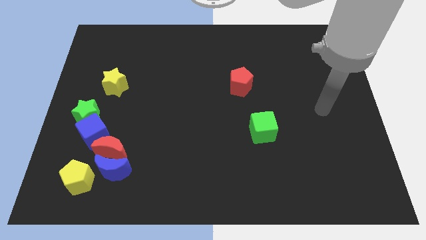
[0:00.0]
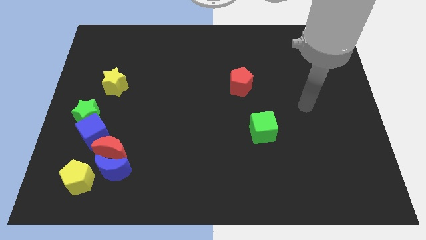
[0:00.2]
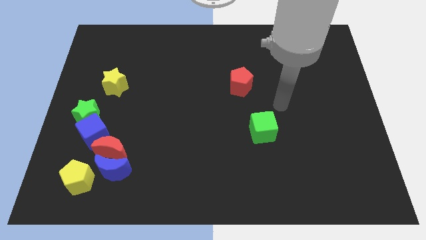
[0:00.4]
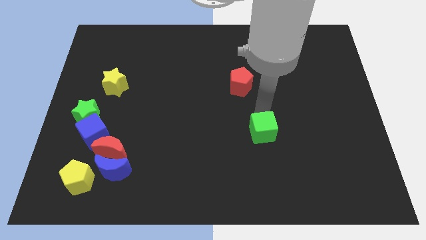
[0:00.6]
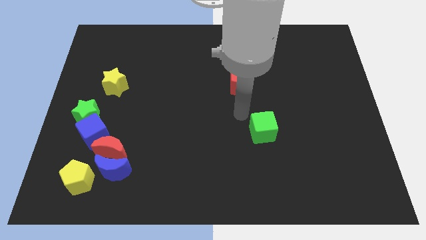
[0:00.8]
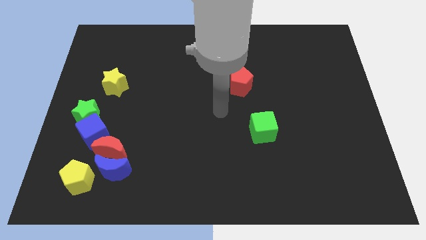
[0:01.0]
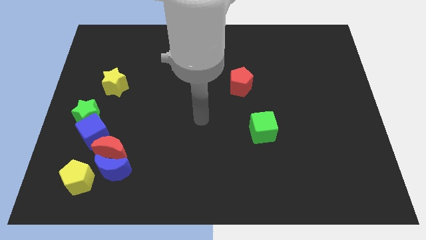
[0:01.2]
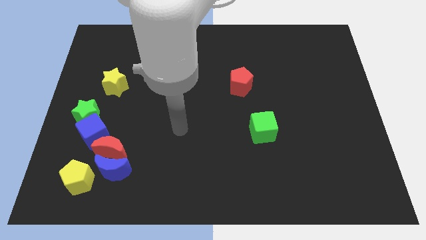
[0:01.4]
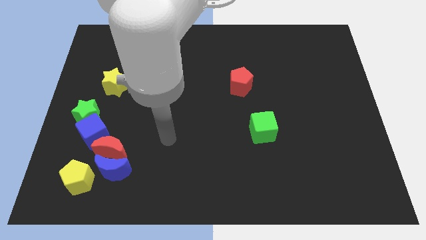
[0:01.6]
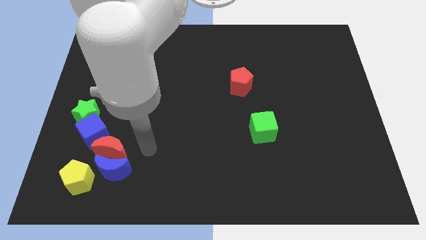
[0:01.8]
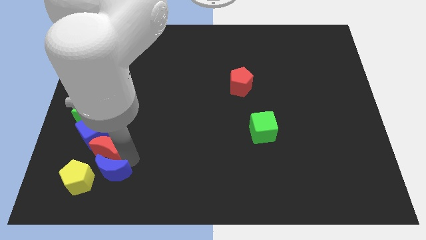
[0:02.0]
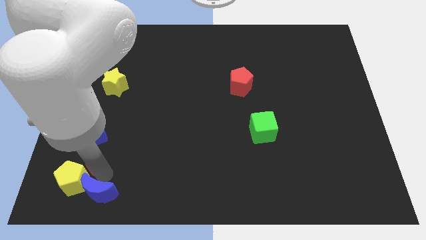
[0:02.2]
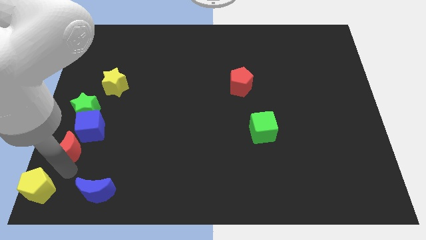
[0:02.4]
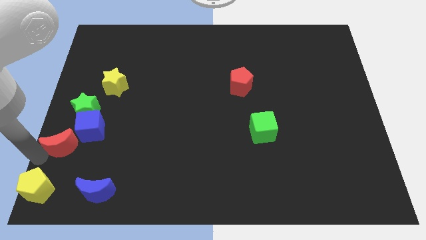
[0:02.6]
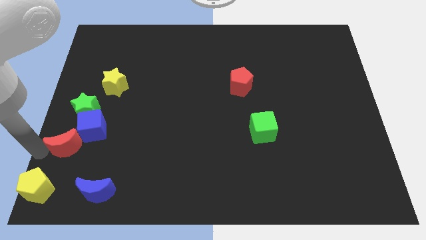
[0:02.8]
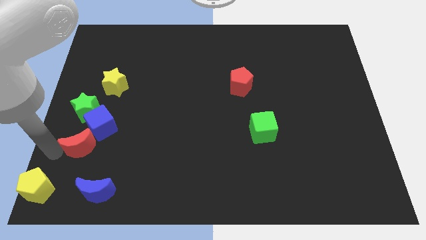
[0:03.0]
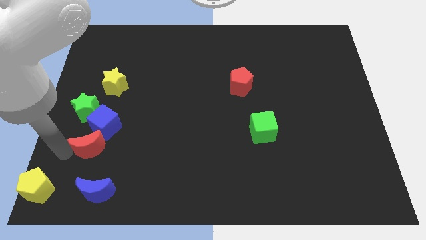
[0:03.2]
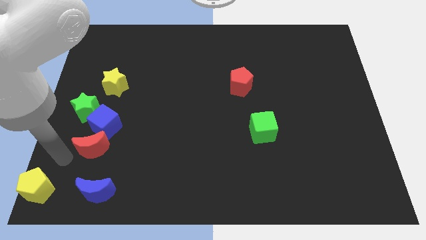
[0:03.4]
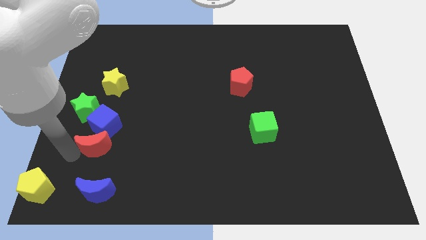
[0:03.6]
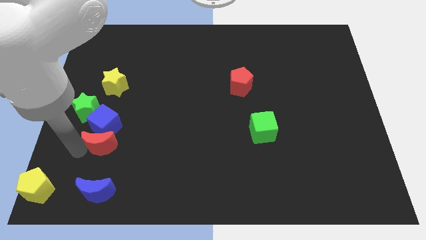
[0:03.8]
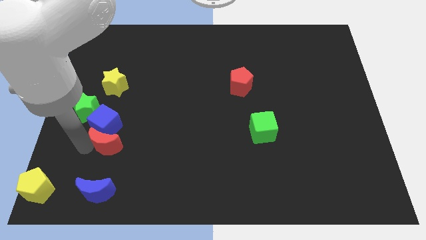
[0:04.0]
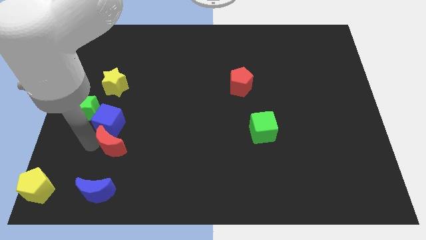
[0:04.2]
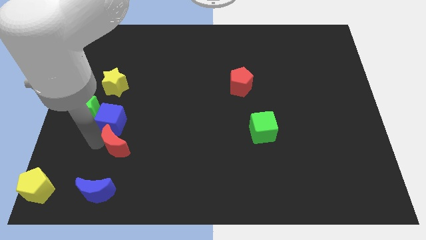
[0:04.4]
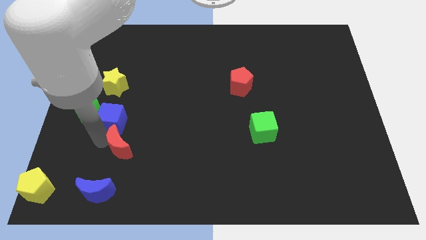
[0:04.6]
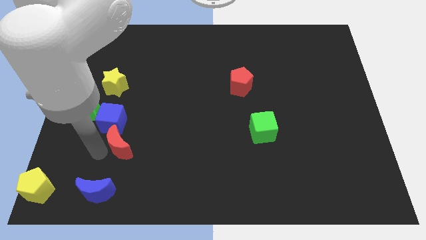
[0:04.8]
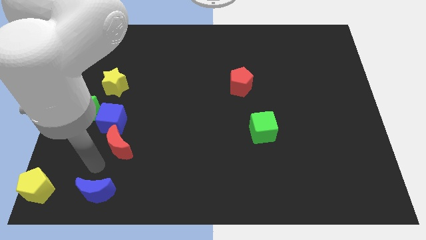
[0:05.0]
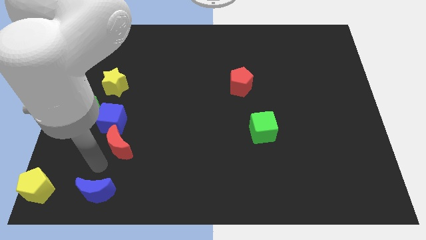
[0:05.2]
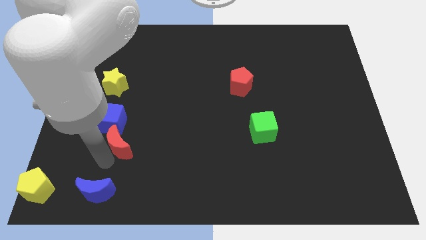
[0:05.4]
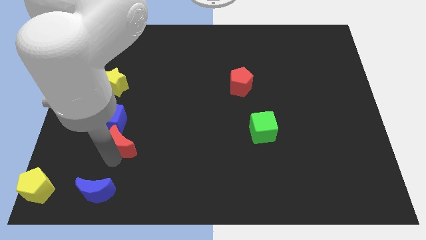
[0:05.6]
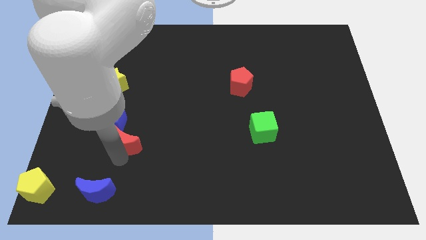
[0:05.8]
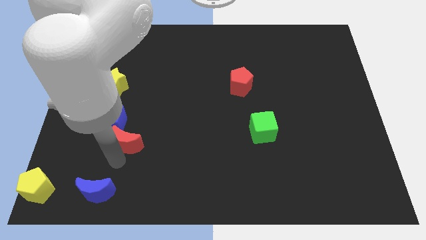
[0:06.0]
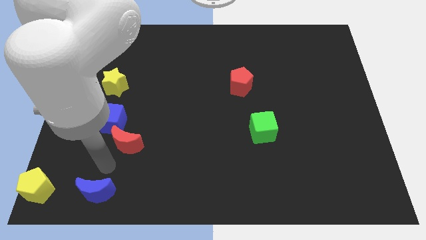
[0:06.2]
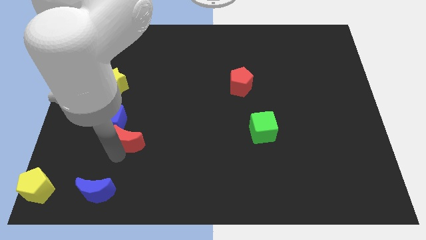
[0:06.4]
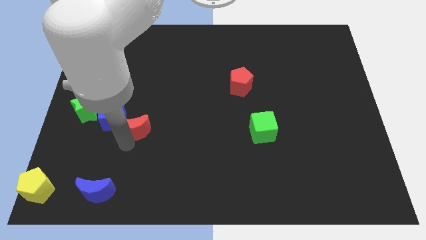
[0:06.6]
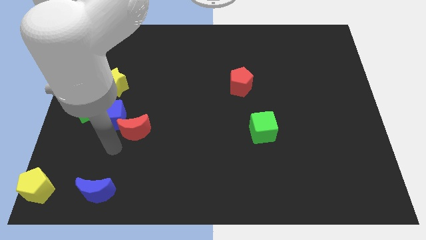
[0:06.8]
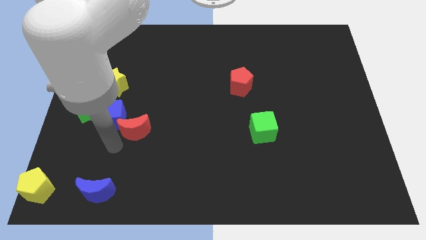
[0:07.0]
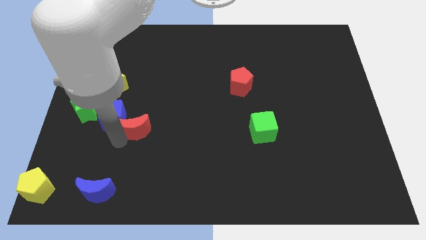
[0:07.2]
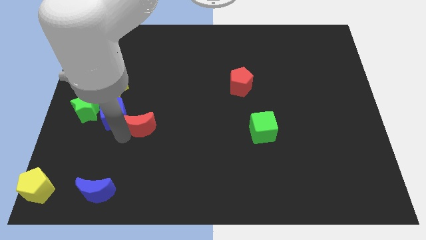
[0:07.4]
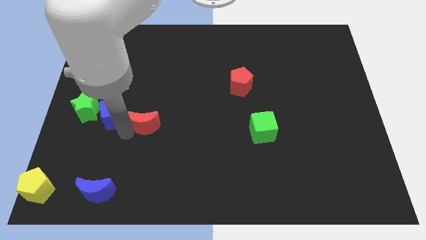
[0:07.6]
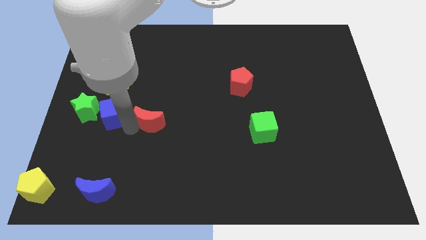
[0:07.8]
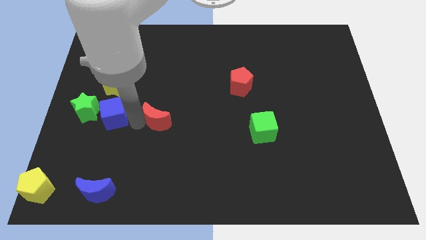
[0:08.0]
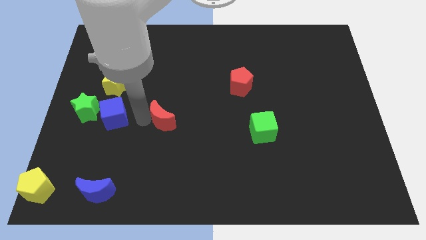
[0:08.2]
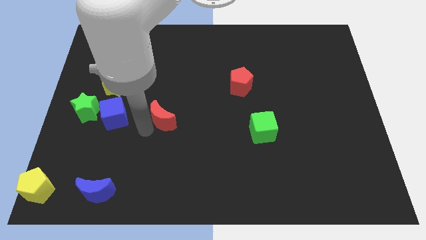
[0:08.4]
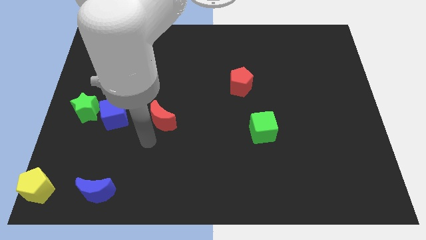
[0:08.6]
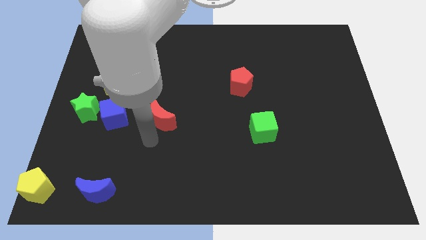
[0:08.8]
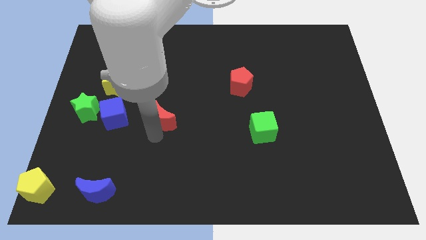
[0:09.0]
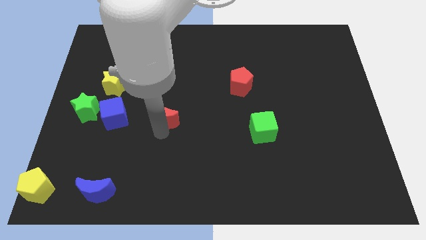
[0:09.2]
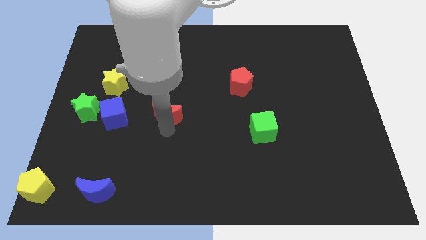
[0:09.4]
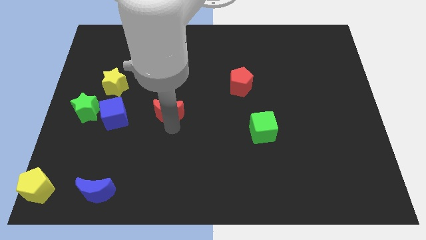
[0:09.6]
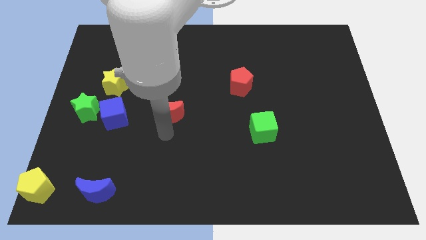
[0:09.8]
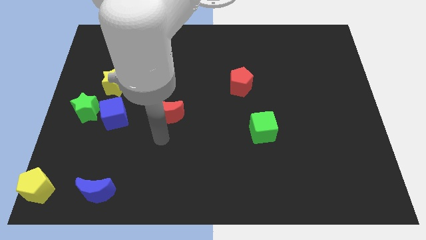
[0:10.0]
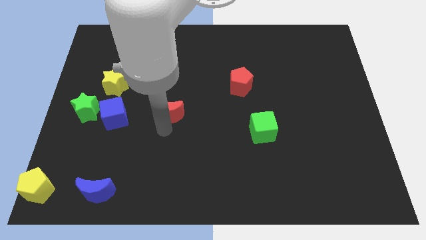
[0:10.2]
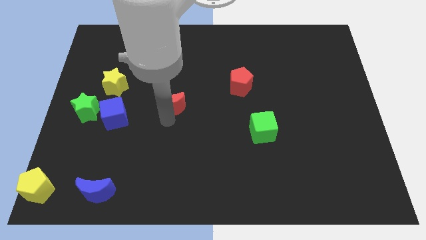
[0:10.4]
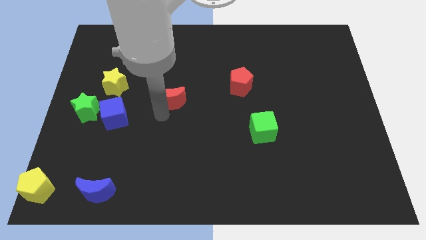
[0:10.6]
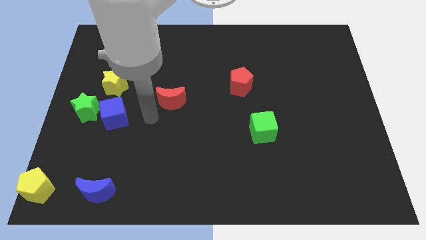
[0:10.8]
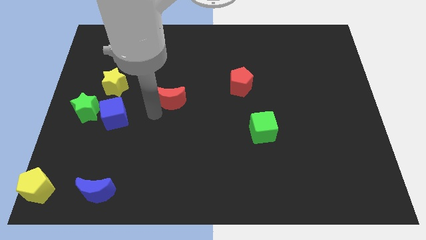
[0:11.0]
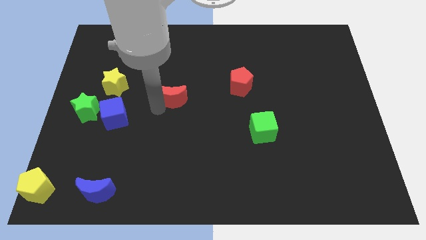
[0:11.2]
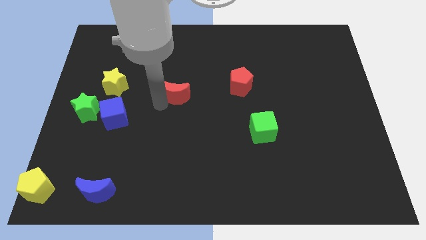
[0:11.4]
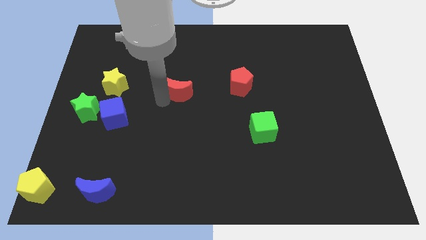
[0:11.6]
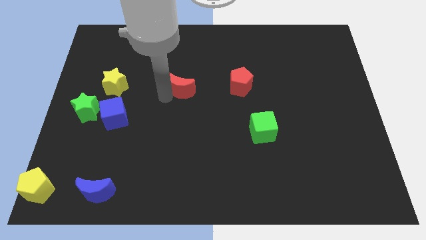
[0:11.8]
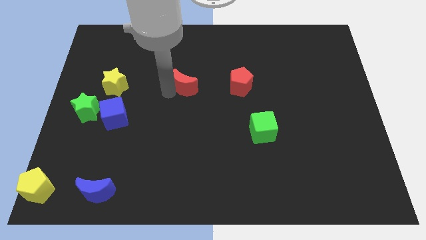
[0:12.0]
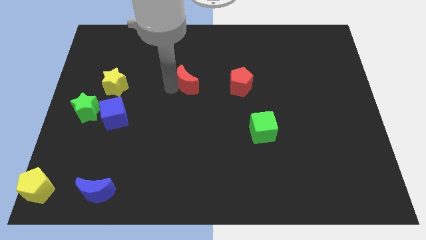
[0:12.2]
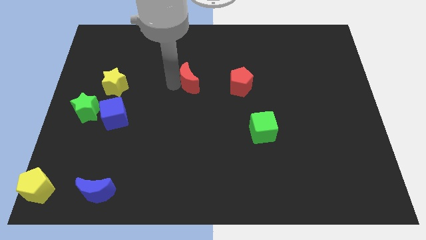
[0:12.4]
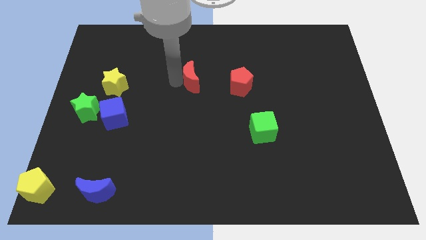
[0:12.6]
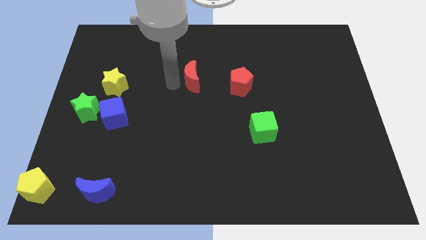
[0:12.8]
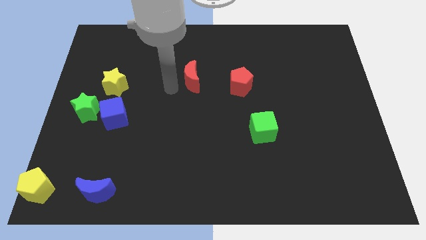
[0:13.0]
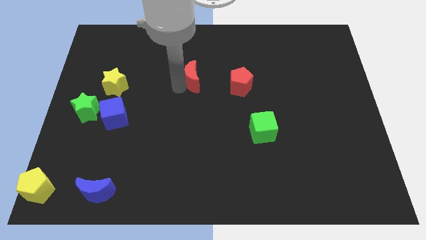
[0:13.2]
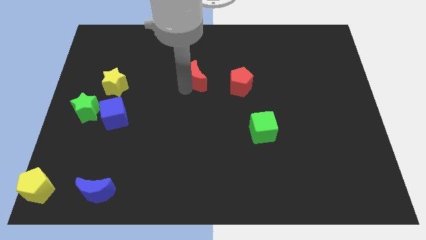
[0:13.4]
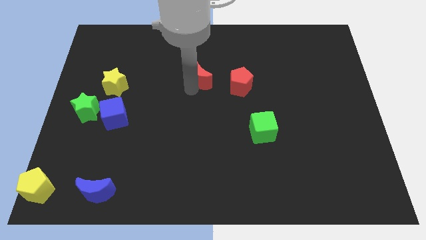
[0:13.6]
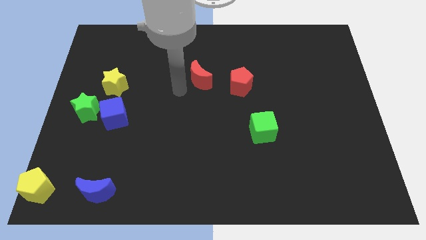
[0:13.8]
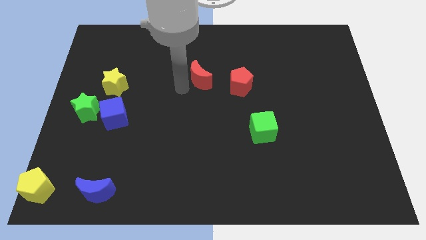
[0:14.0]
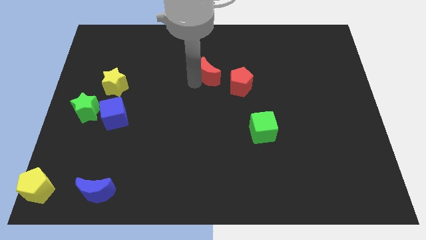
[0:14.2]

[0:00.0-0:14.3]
push the red moon to the top left of the red pentagon

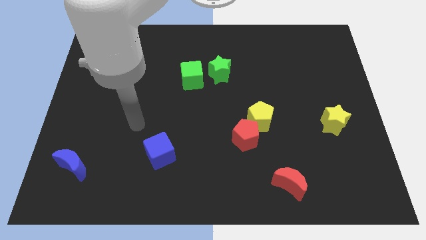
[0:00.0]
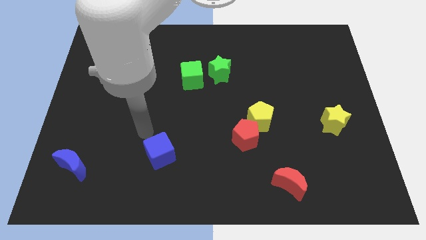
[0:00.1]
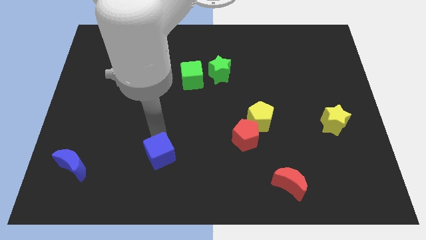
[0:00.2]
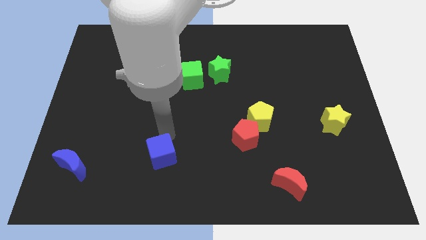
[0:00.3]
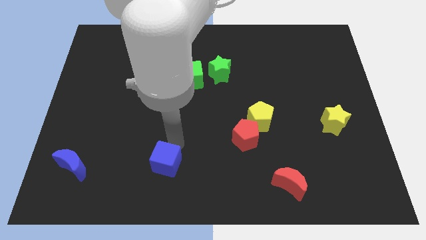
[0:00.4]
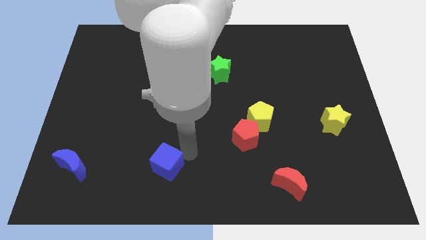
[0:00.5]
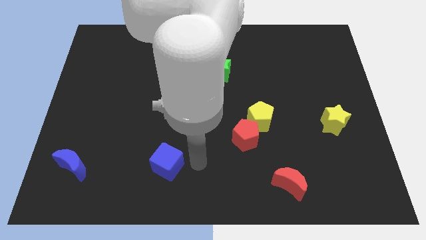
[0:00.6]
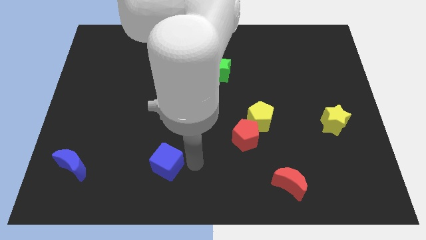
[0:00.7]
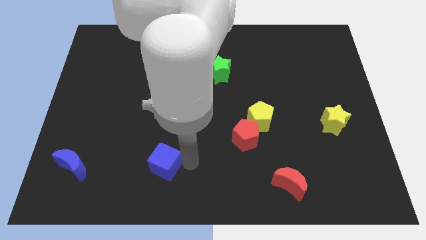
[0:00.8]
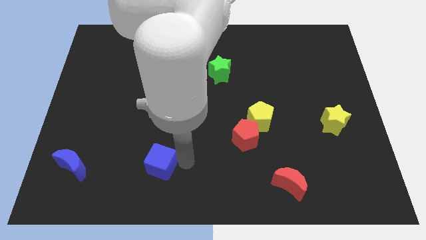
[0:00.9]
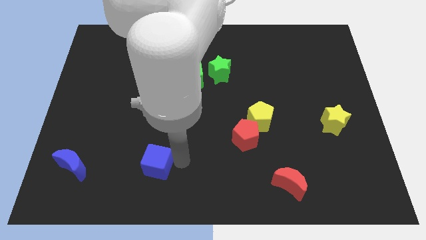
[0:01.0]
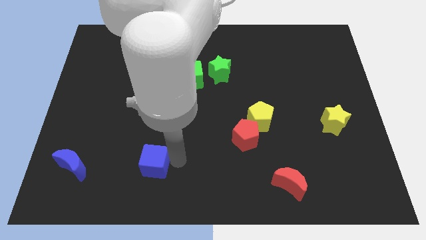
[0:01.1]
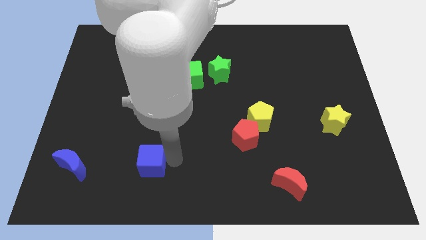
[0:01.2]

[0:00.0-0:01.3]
push the blue cube to the right of the blue moon
